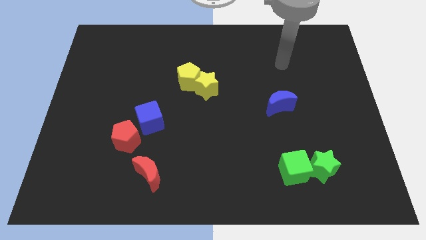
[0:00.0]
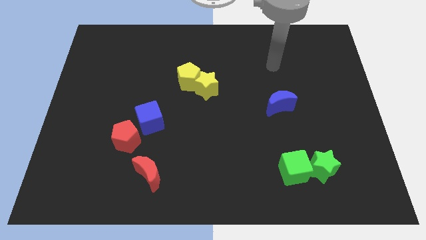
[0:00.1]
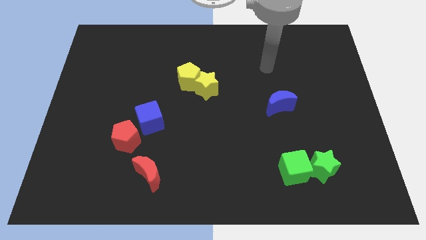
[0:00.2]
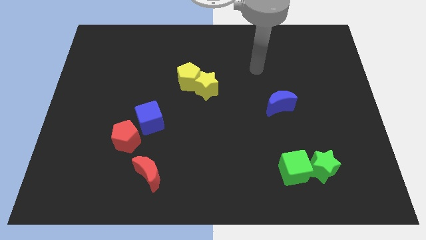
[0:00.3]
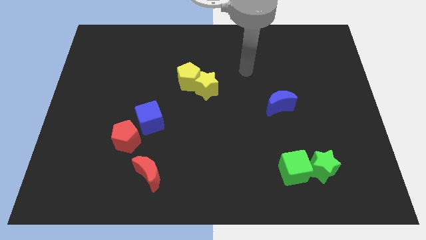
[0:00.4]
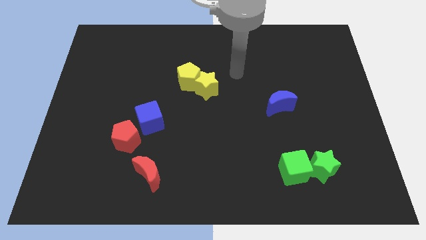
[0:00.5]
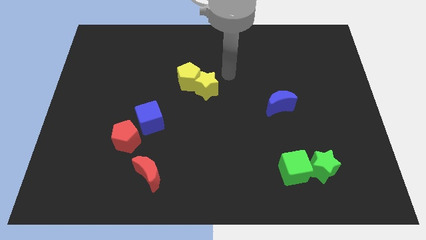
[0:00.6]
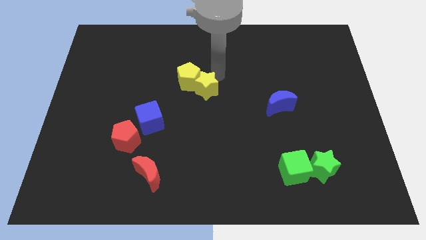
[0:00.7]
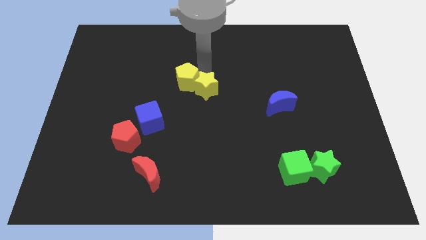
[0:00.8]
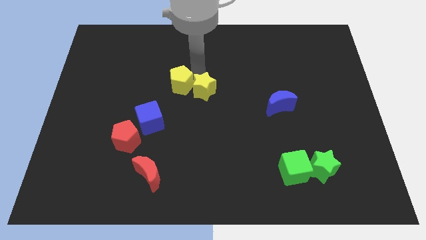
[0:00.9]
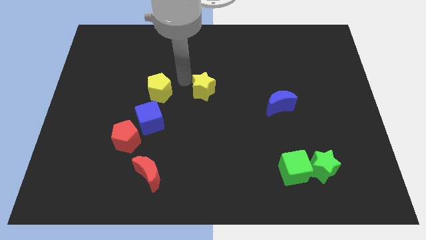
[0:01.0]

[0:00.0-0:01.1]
move the yellow star away from the yellow pentagon

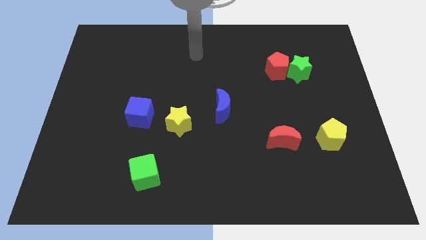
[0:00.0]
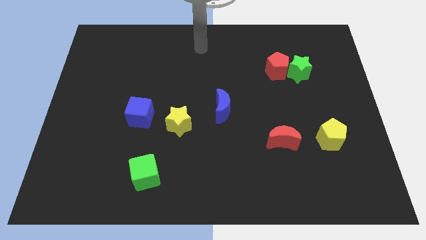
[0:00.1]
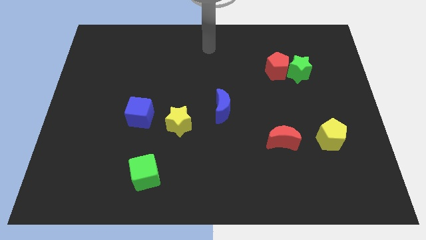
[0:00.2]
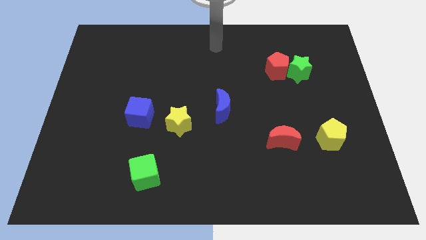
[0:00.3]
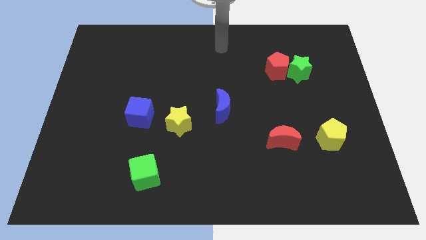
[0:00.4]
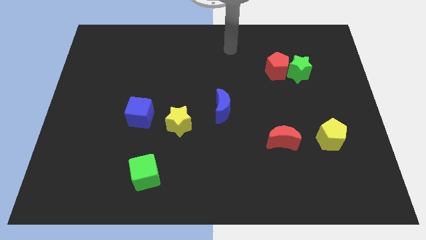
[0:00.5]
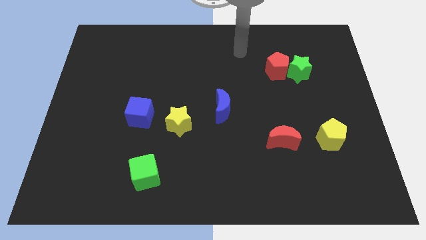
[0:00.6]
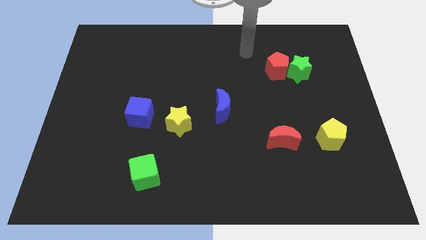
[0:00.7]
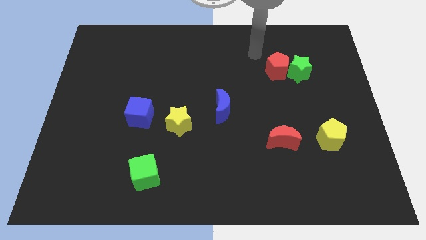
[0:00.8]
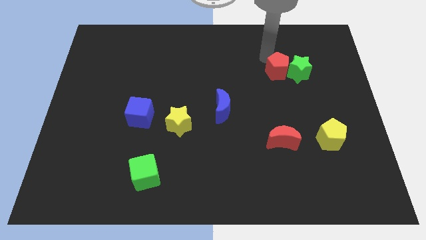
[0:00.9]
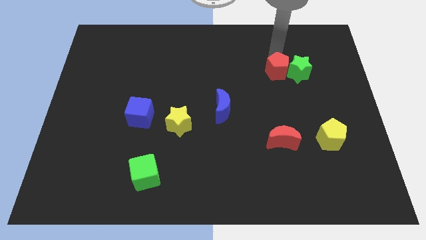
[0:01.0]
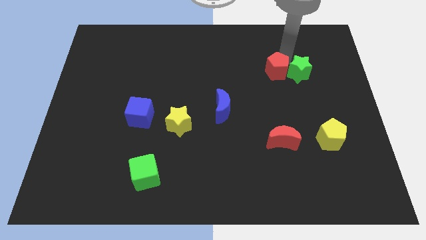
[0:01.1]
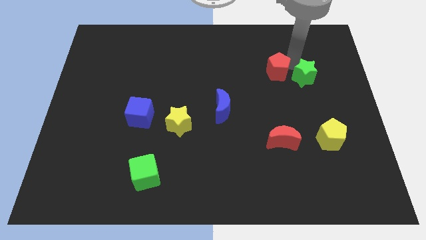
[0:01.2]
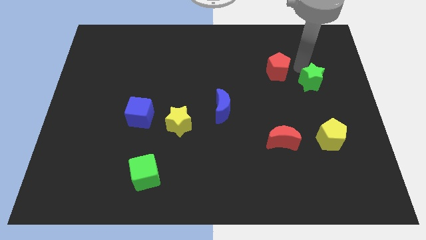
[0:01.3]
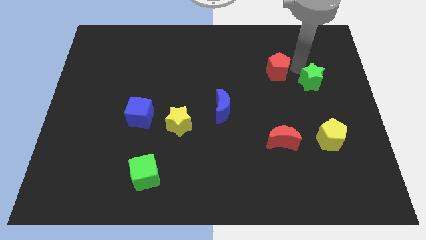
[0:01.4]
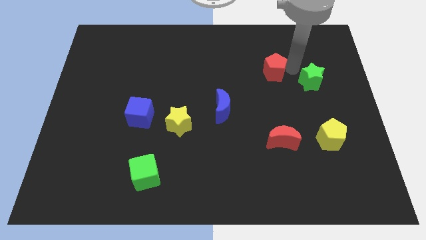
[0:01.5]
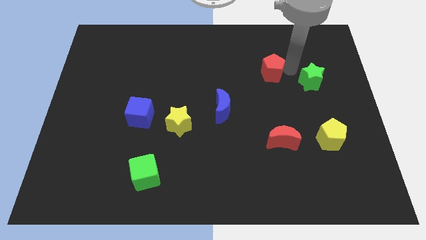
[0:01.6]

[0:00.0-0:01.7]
separate the red pentagon from the green star

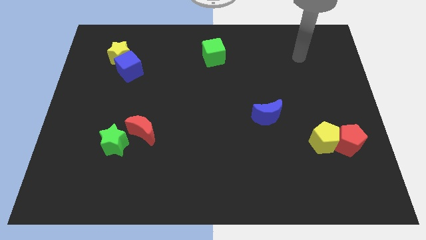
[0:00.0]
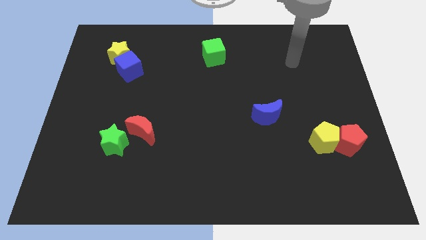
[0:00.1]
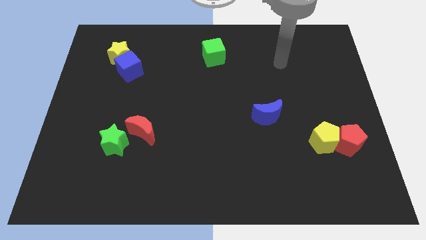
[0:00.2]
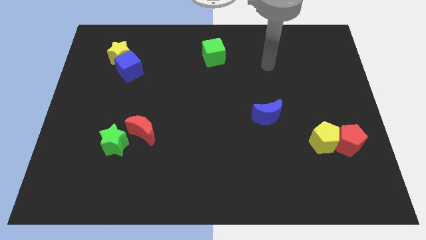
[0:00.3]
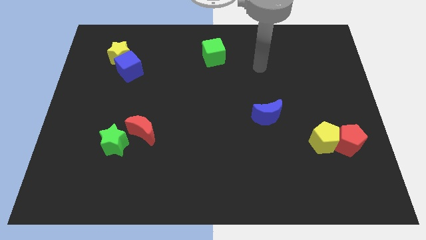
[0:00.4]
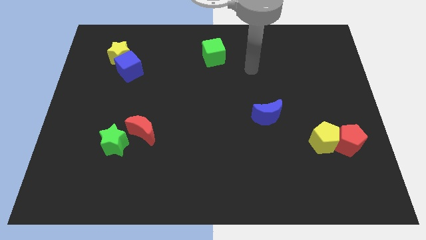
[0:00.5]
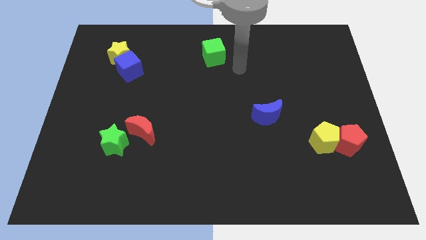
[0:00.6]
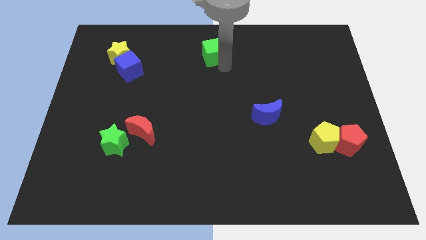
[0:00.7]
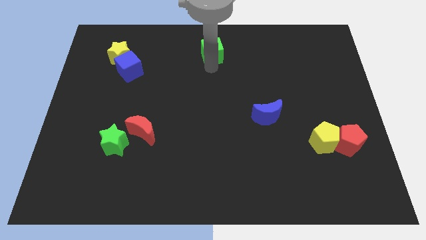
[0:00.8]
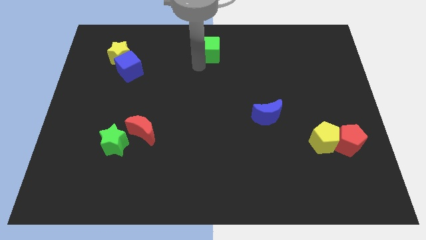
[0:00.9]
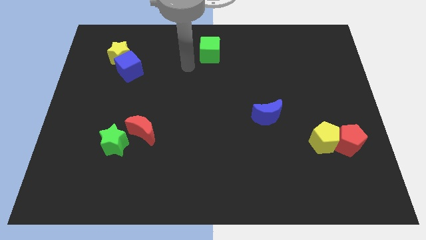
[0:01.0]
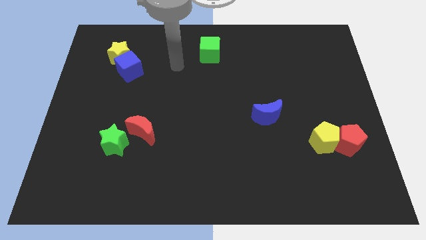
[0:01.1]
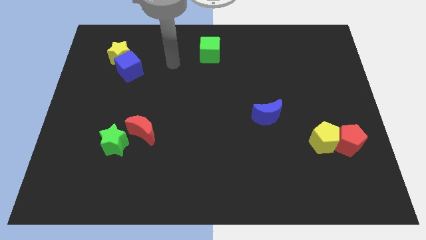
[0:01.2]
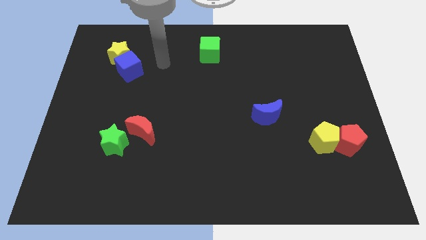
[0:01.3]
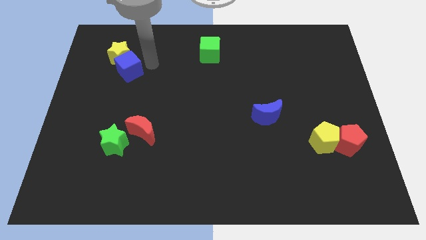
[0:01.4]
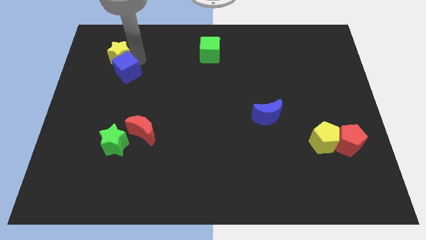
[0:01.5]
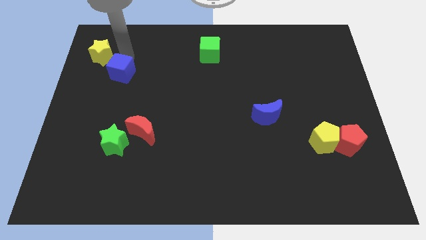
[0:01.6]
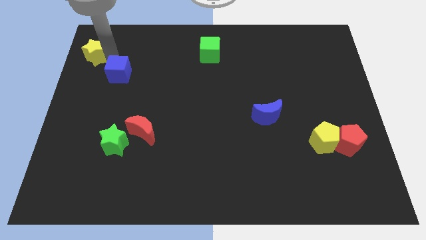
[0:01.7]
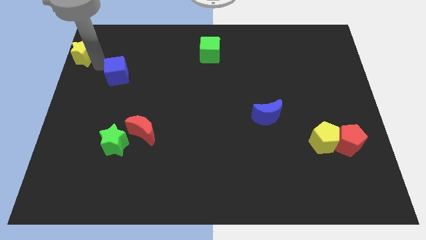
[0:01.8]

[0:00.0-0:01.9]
move the blue cube away from the yellow star

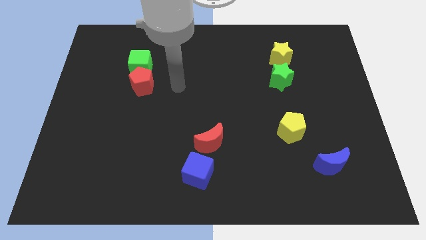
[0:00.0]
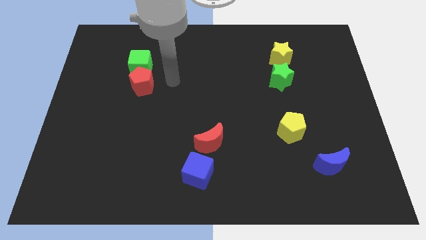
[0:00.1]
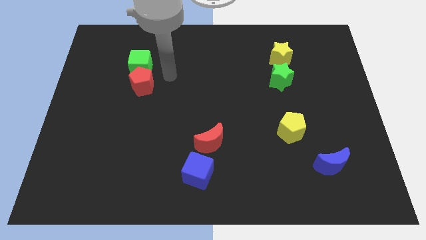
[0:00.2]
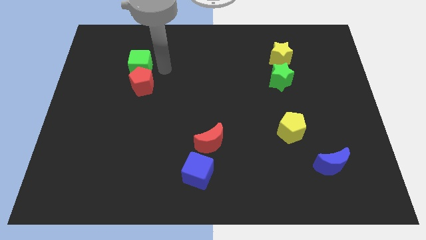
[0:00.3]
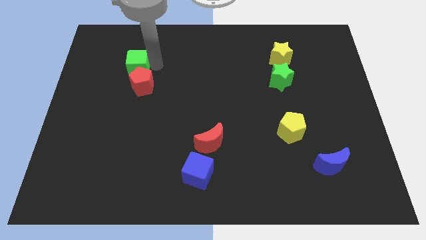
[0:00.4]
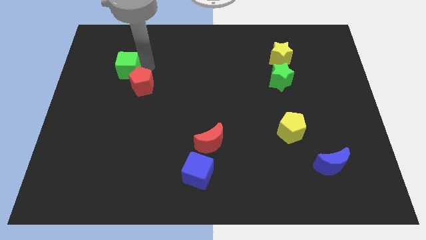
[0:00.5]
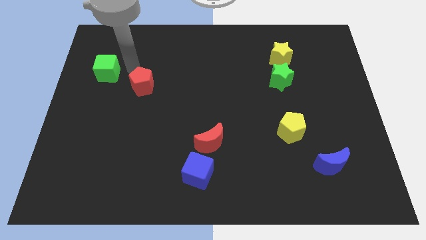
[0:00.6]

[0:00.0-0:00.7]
pull the red pentagon apart from the green cube

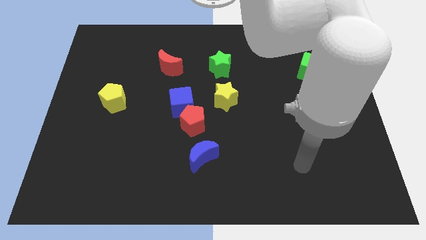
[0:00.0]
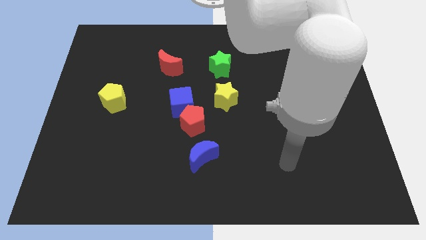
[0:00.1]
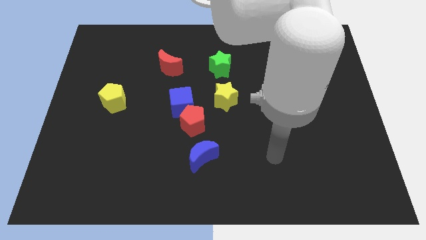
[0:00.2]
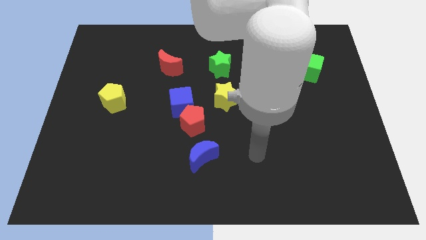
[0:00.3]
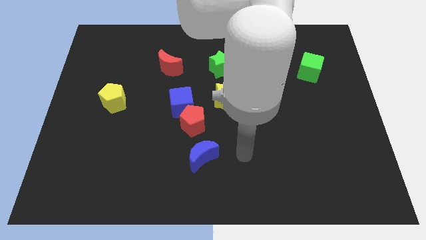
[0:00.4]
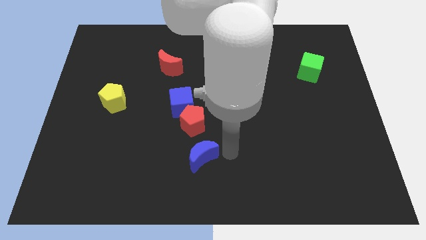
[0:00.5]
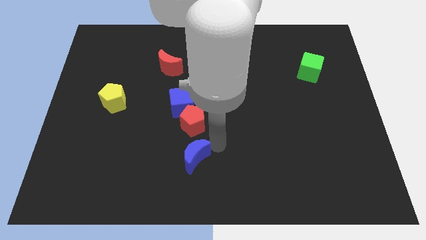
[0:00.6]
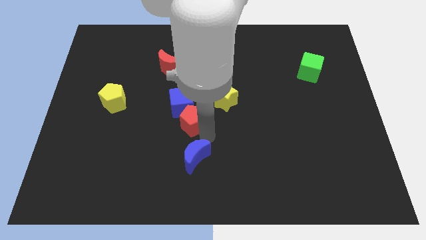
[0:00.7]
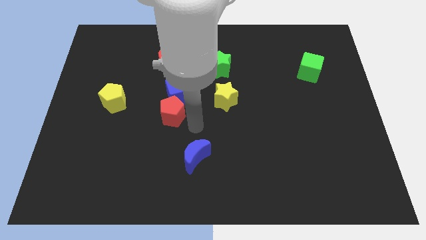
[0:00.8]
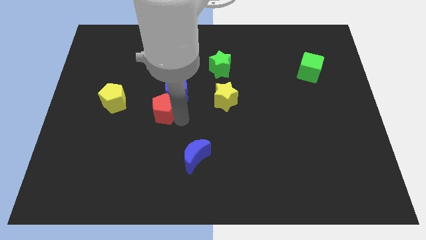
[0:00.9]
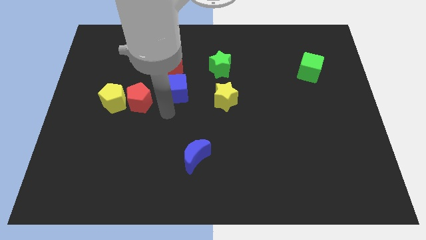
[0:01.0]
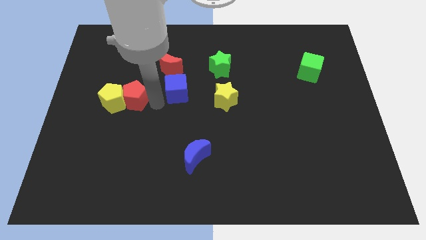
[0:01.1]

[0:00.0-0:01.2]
pull the blue cube apart from the red pentagon

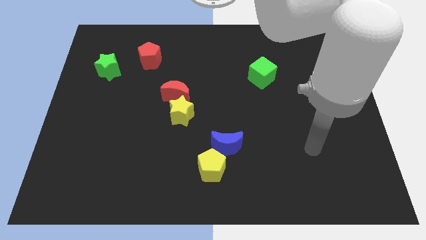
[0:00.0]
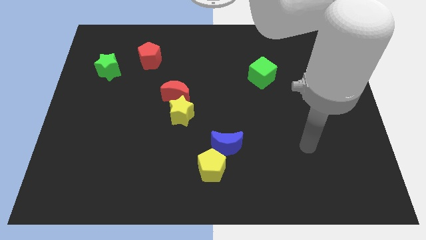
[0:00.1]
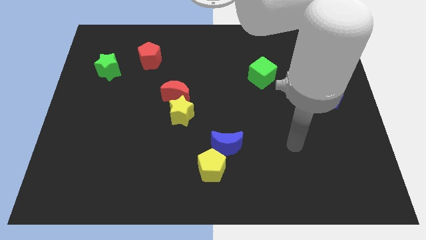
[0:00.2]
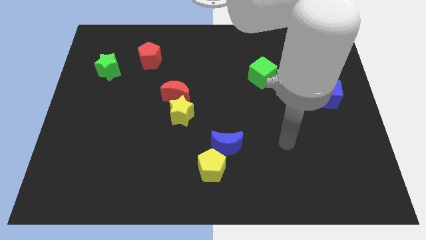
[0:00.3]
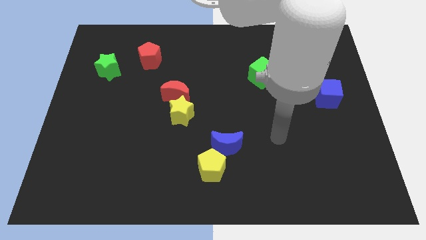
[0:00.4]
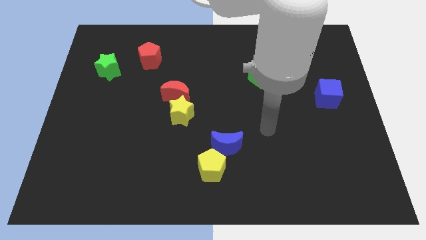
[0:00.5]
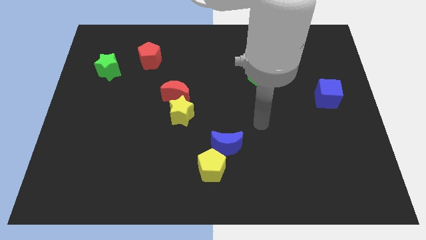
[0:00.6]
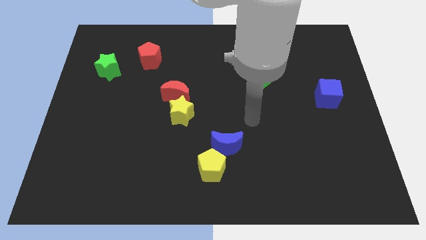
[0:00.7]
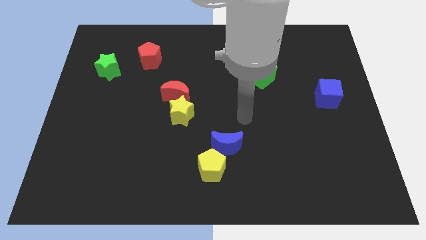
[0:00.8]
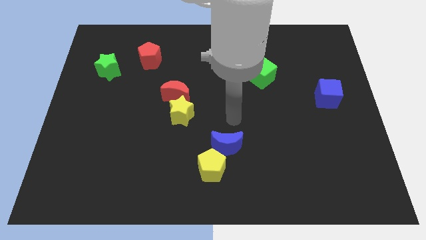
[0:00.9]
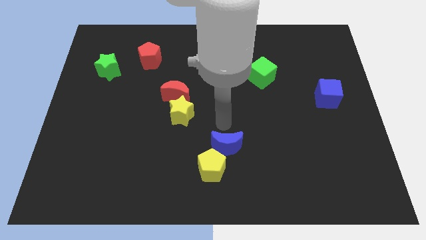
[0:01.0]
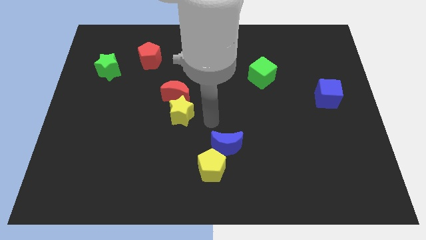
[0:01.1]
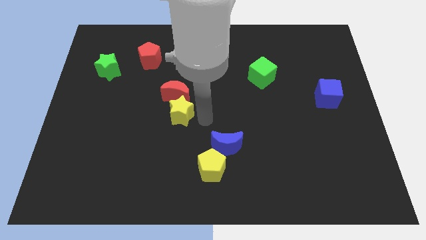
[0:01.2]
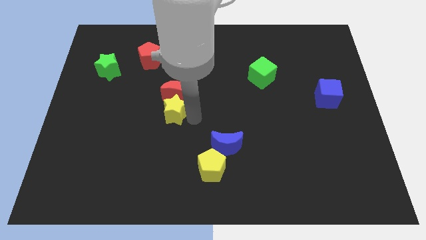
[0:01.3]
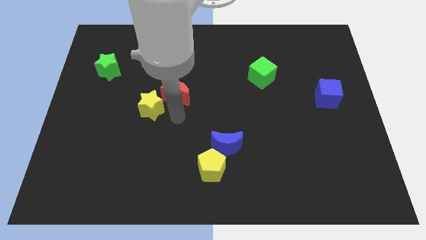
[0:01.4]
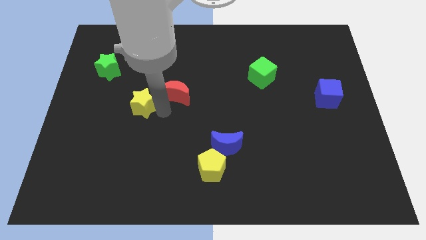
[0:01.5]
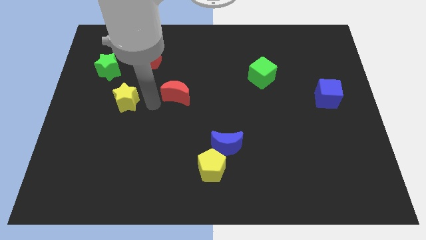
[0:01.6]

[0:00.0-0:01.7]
pull the red moon apart from the yellow star

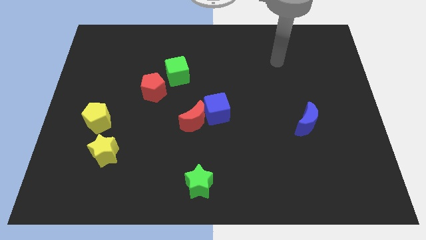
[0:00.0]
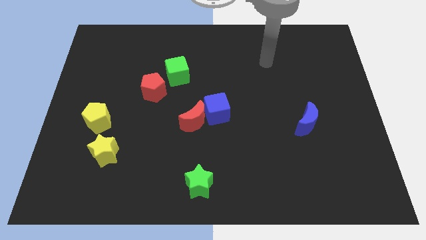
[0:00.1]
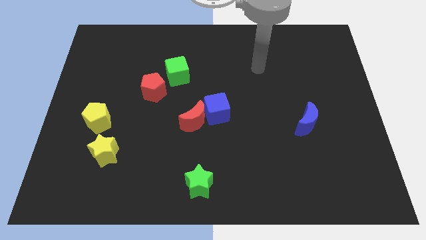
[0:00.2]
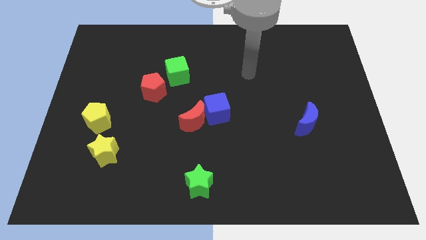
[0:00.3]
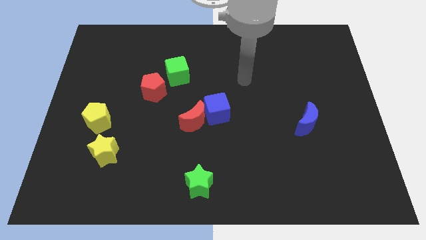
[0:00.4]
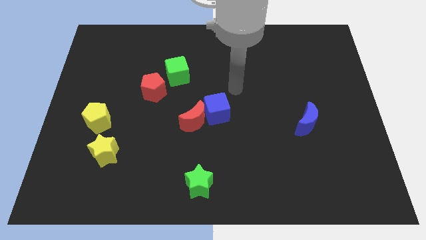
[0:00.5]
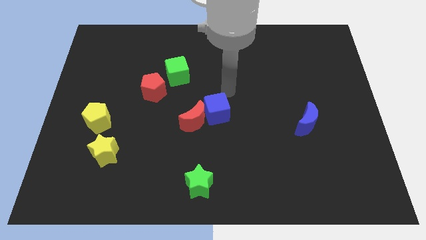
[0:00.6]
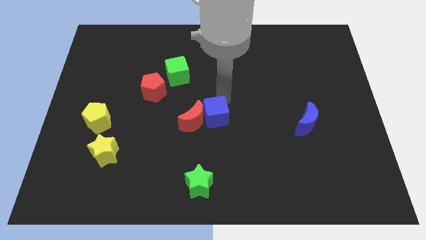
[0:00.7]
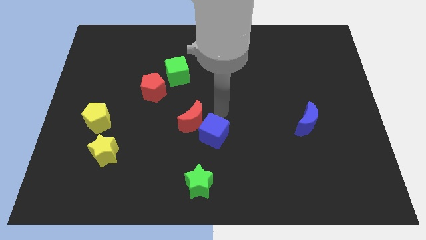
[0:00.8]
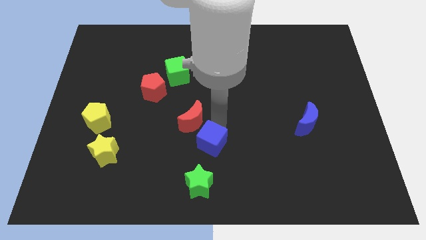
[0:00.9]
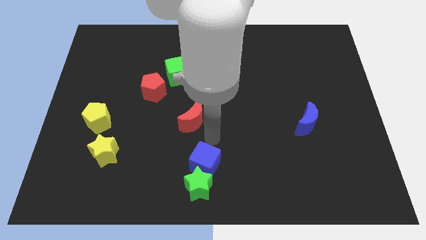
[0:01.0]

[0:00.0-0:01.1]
pull the red moon apart from the blue cube
